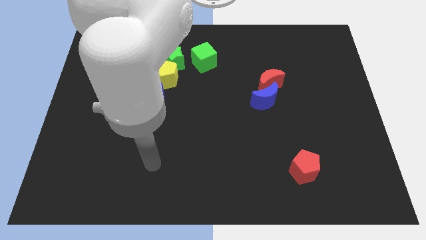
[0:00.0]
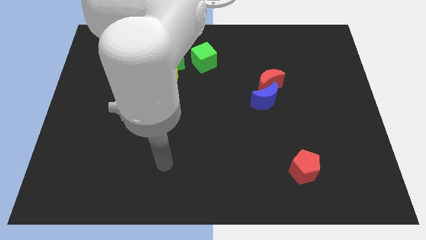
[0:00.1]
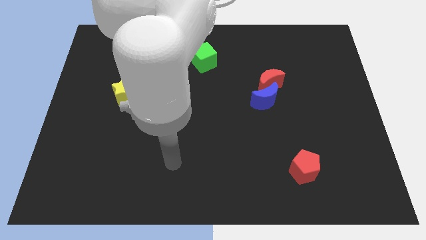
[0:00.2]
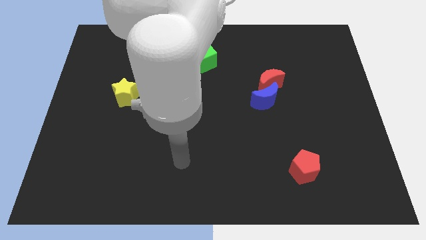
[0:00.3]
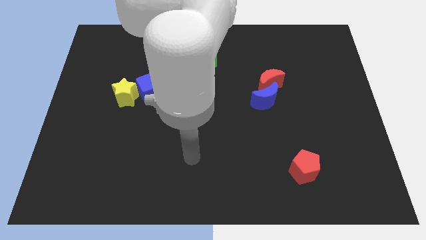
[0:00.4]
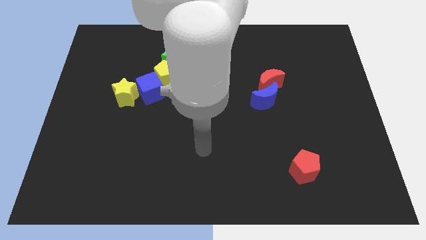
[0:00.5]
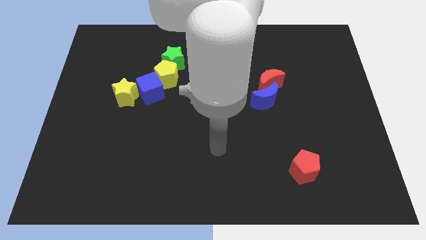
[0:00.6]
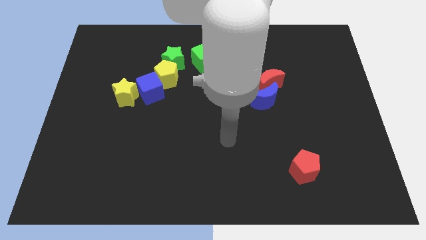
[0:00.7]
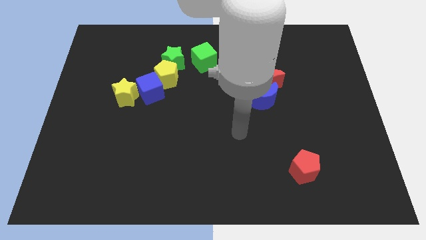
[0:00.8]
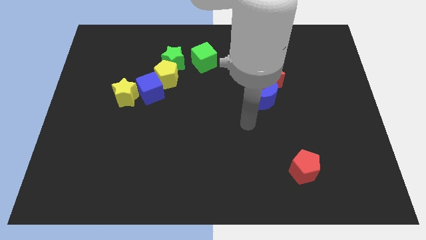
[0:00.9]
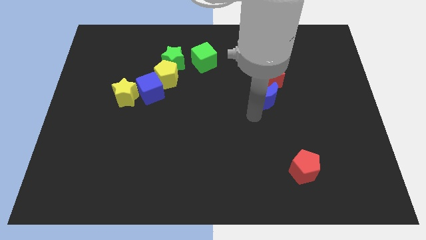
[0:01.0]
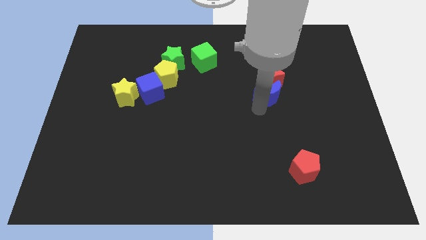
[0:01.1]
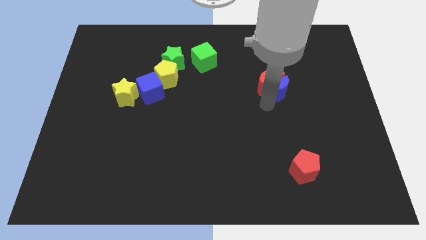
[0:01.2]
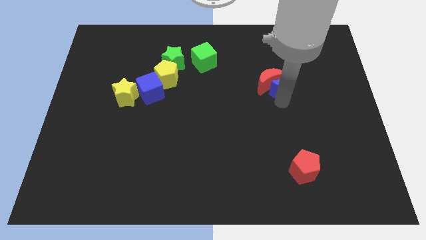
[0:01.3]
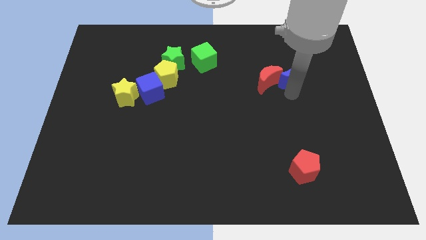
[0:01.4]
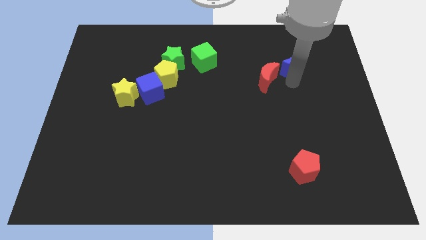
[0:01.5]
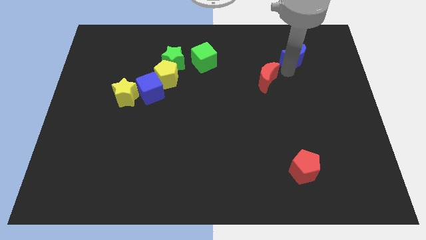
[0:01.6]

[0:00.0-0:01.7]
separate the red moon from the blue moon

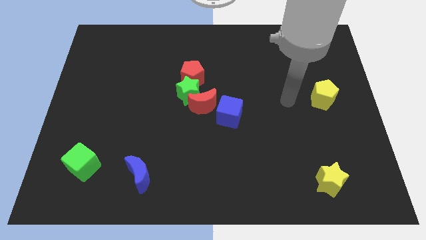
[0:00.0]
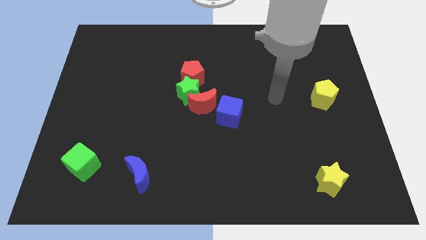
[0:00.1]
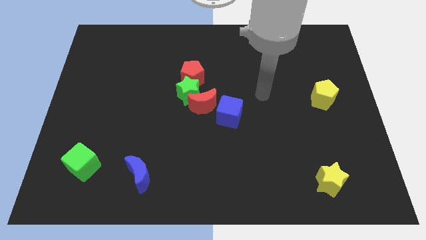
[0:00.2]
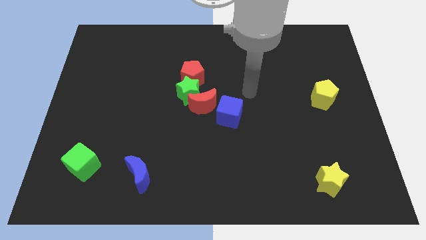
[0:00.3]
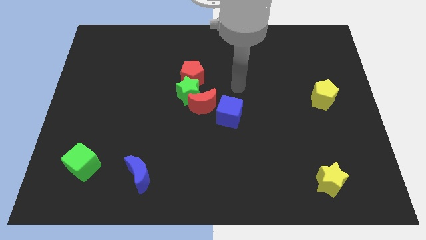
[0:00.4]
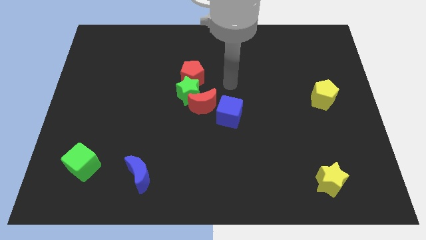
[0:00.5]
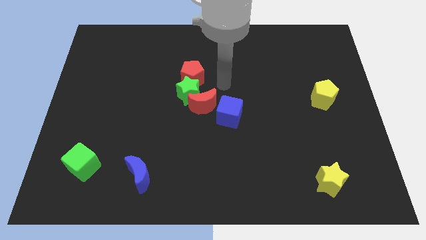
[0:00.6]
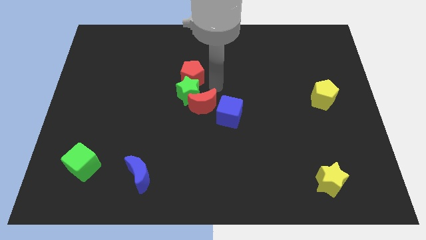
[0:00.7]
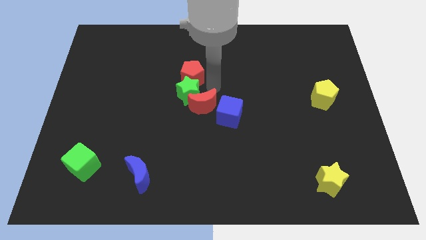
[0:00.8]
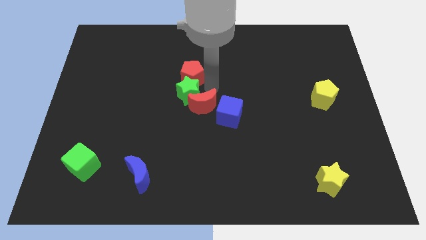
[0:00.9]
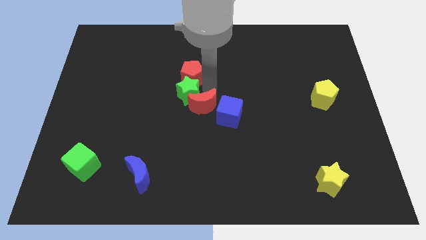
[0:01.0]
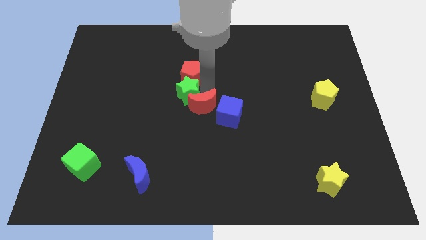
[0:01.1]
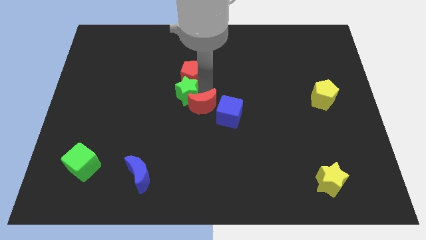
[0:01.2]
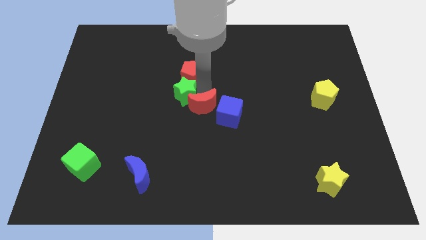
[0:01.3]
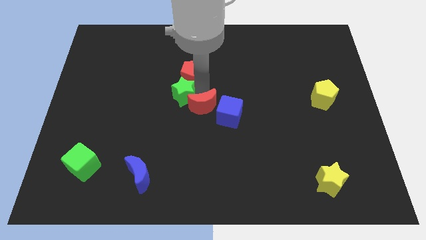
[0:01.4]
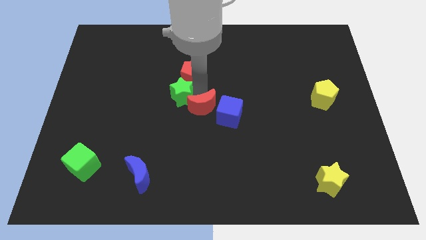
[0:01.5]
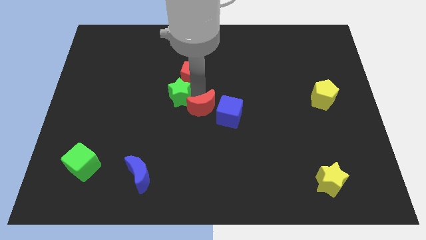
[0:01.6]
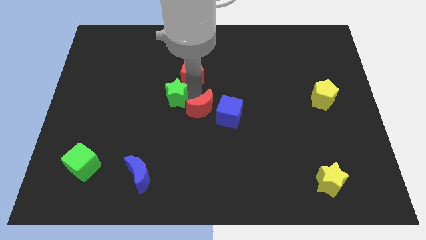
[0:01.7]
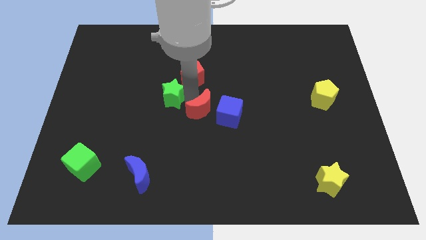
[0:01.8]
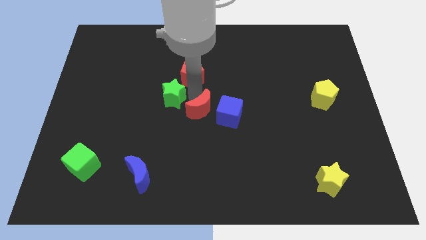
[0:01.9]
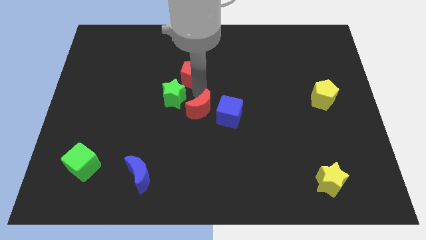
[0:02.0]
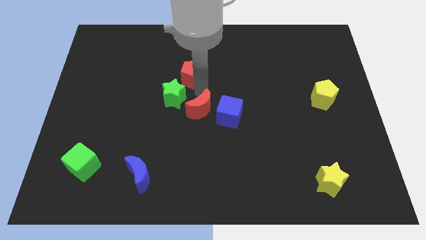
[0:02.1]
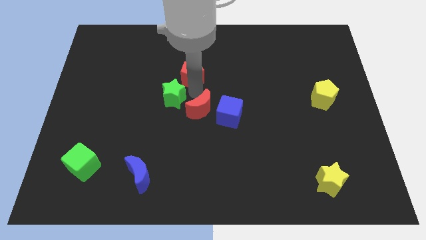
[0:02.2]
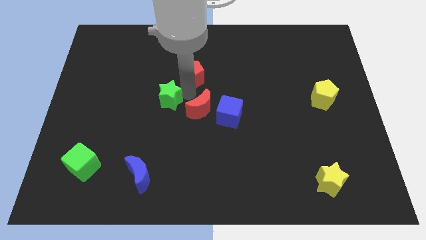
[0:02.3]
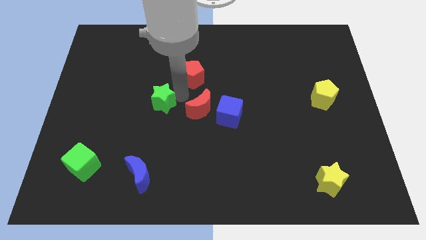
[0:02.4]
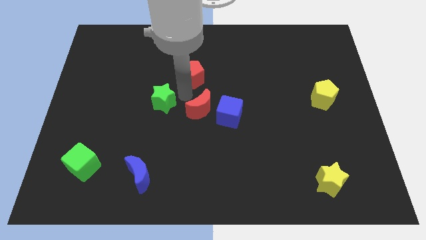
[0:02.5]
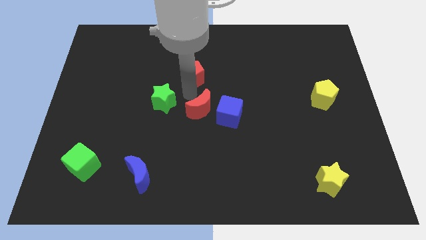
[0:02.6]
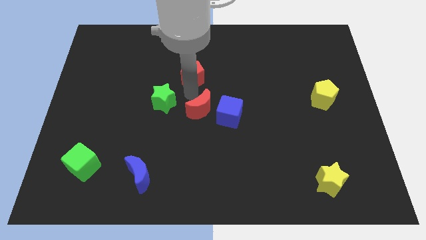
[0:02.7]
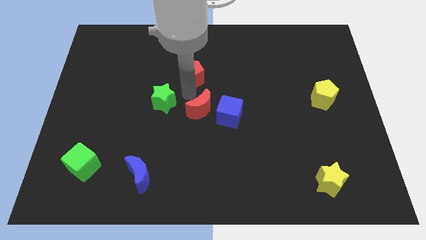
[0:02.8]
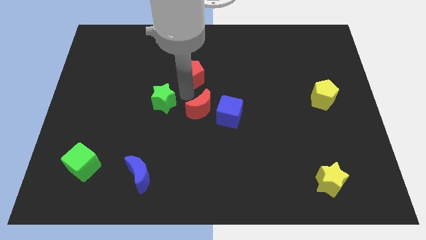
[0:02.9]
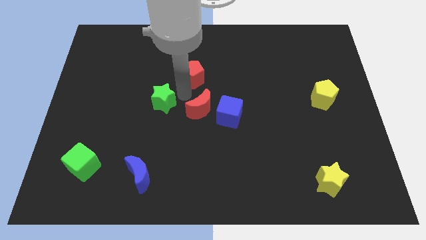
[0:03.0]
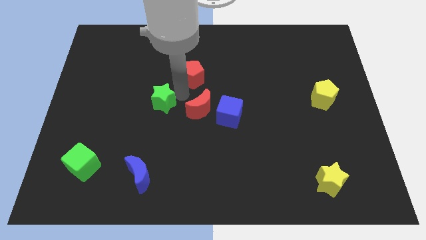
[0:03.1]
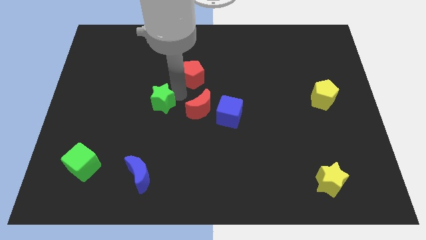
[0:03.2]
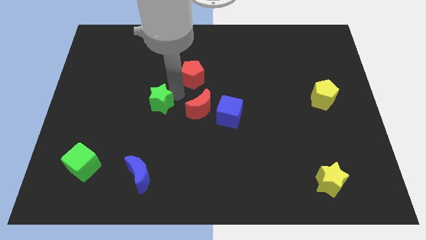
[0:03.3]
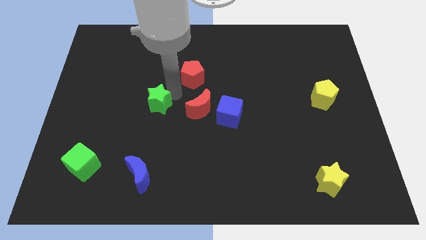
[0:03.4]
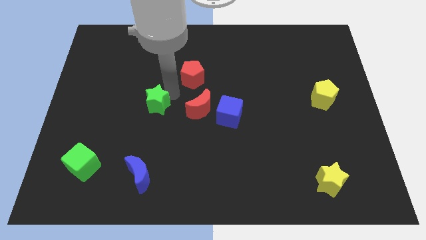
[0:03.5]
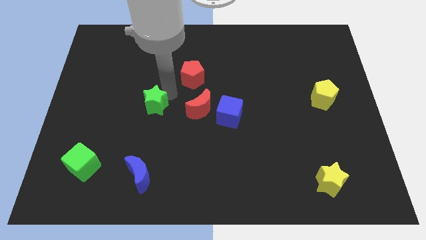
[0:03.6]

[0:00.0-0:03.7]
separate the green star from the red moon and red pentagon

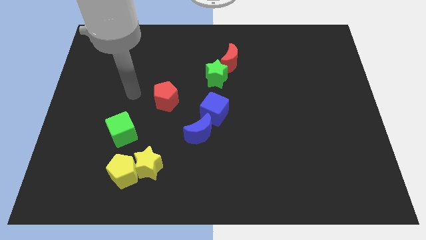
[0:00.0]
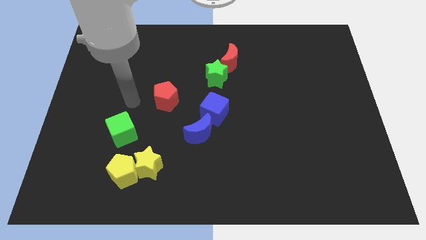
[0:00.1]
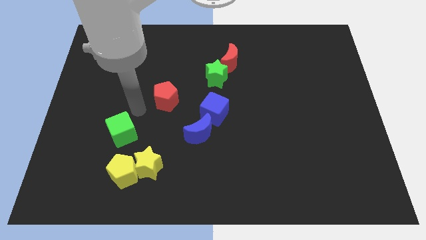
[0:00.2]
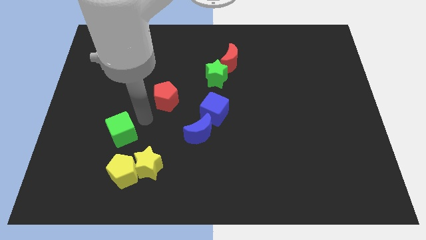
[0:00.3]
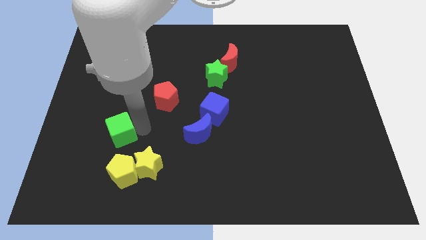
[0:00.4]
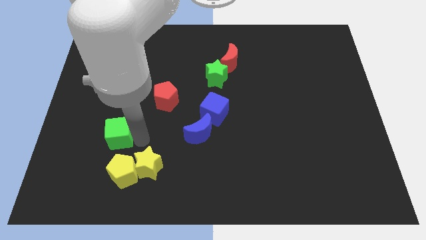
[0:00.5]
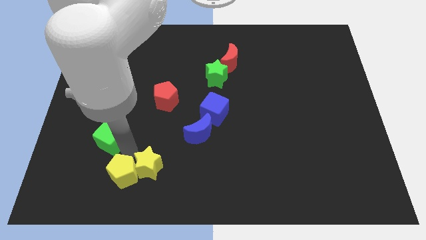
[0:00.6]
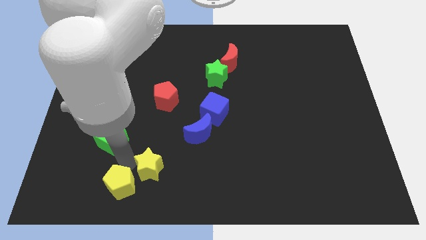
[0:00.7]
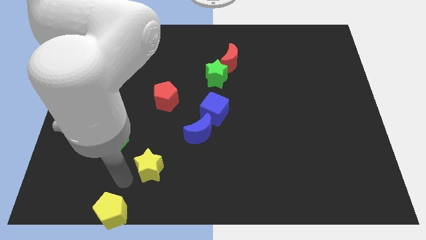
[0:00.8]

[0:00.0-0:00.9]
separate the yellow star from the yellow pentagon

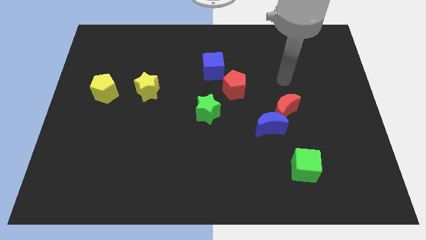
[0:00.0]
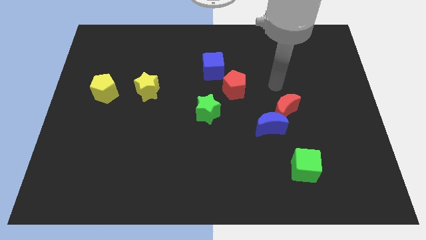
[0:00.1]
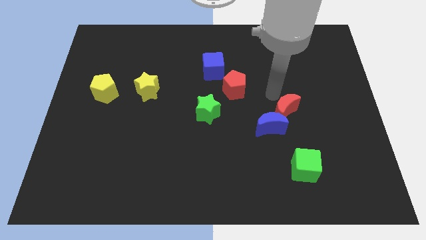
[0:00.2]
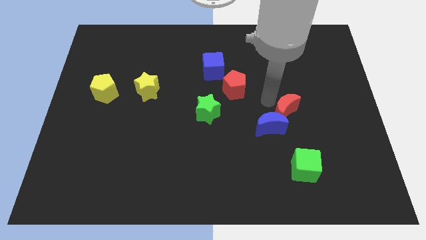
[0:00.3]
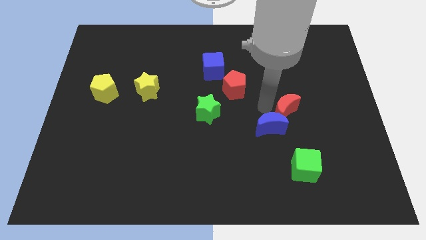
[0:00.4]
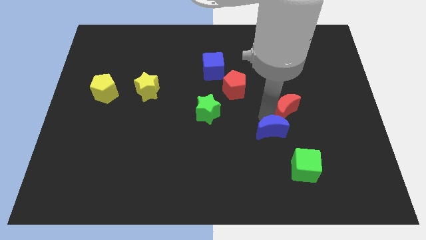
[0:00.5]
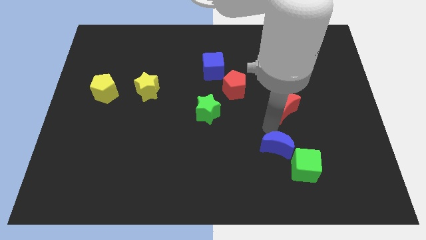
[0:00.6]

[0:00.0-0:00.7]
pull the red moon apart from the blue moon

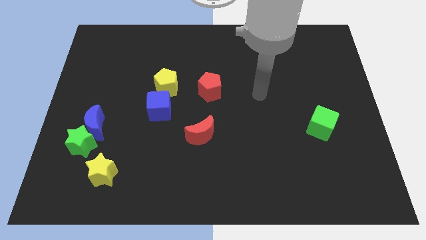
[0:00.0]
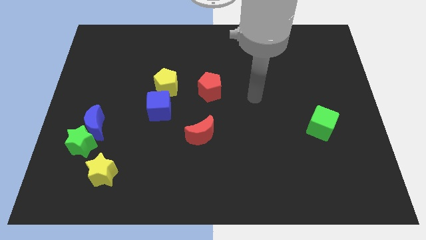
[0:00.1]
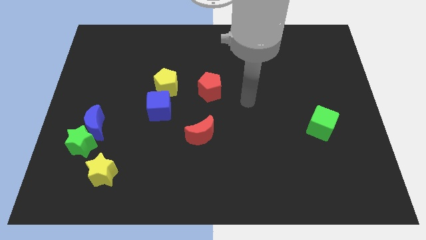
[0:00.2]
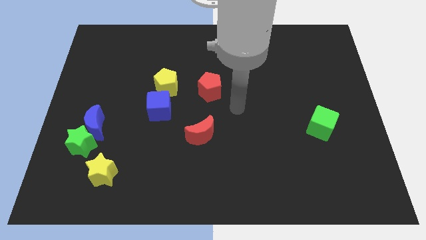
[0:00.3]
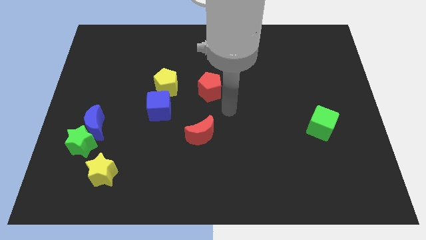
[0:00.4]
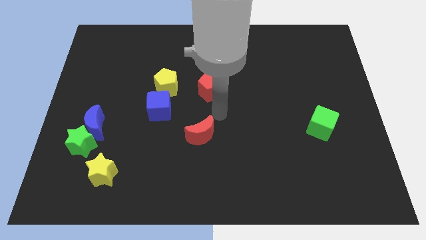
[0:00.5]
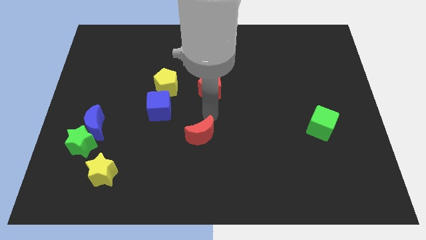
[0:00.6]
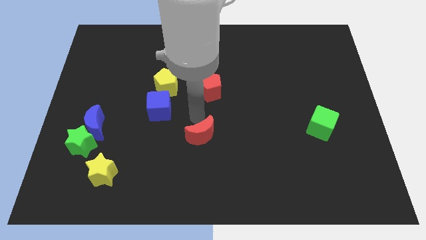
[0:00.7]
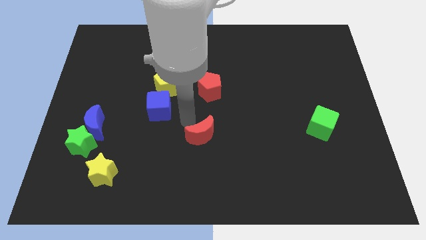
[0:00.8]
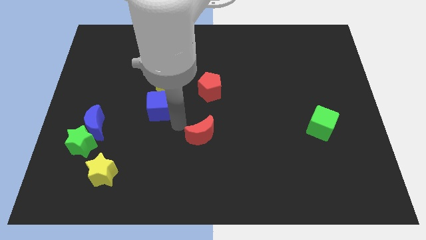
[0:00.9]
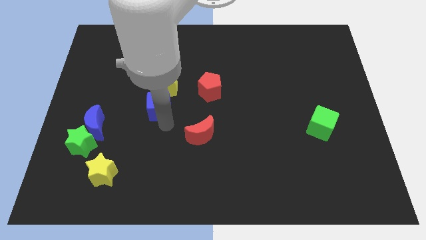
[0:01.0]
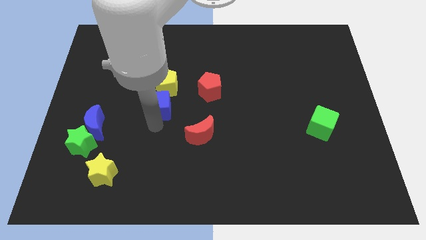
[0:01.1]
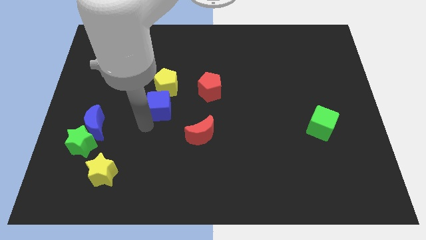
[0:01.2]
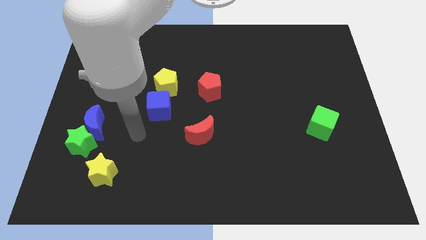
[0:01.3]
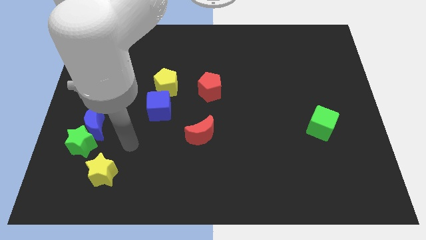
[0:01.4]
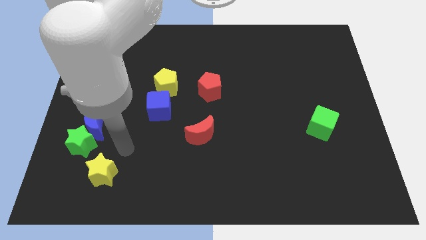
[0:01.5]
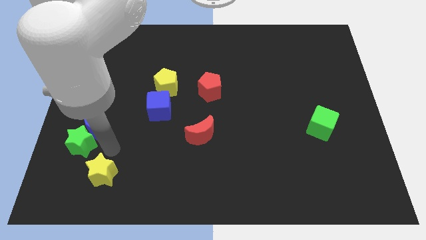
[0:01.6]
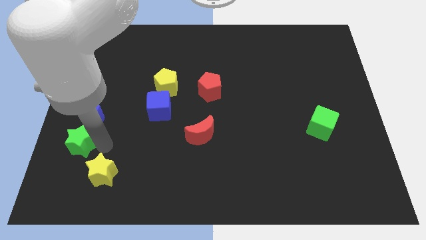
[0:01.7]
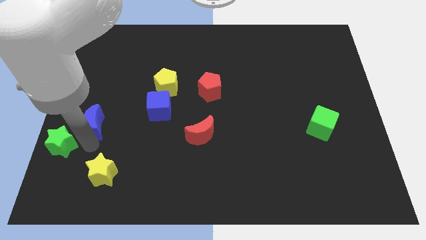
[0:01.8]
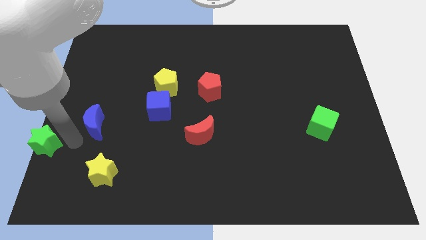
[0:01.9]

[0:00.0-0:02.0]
separate the blue moon from the green star

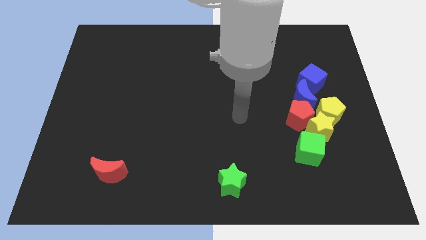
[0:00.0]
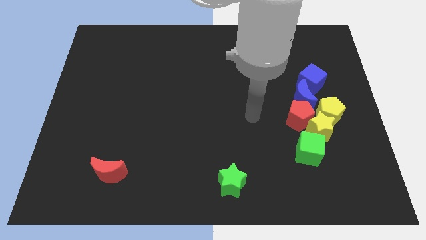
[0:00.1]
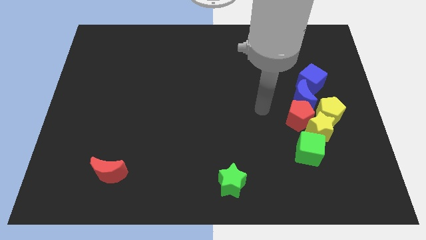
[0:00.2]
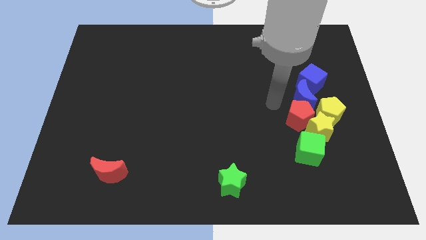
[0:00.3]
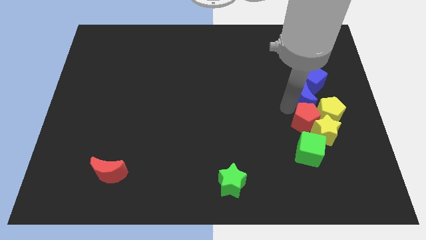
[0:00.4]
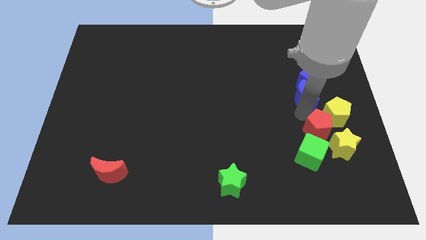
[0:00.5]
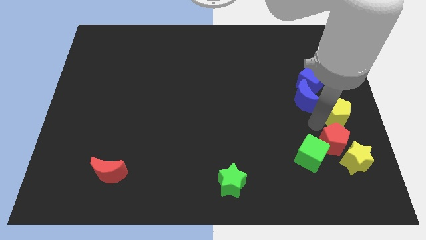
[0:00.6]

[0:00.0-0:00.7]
separate the yellow star from the group
